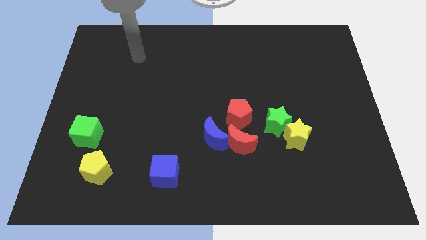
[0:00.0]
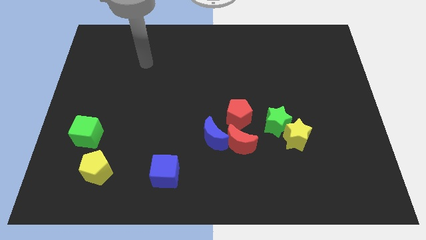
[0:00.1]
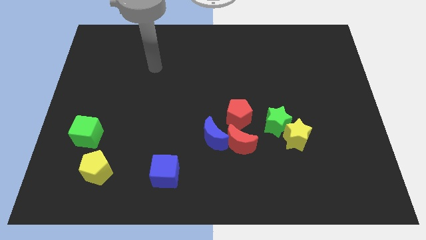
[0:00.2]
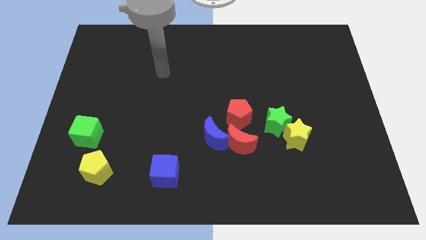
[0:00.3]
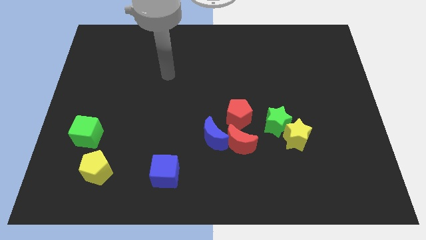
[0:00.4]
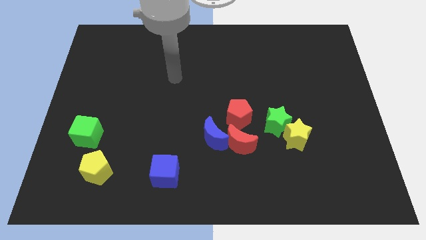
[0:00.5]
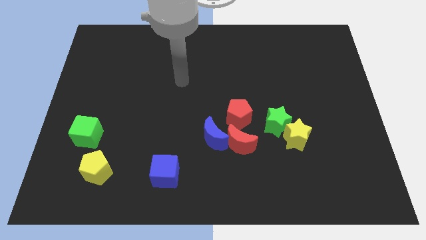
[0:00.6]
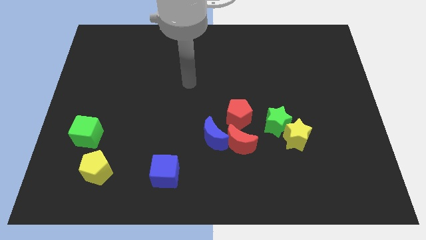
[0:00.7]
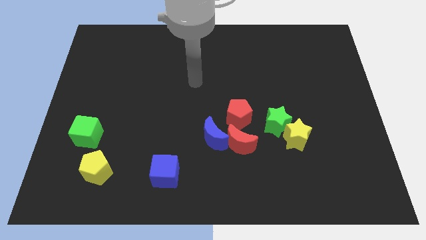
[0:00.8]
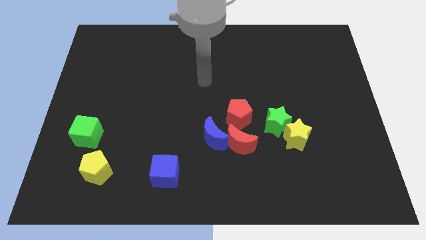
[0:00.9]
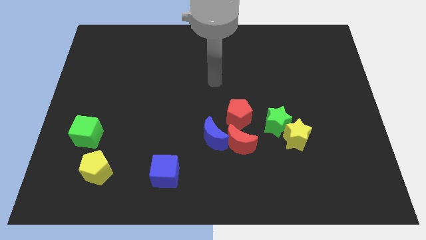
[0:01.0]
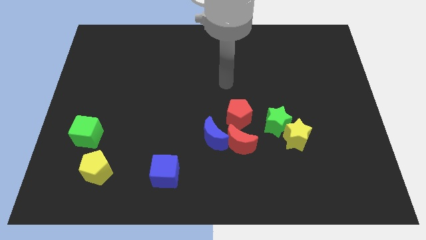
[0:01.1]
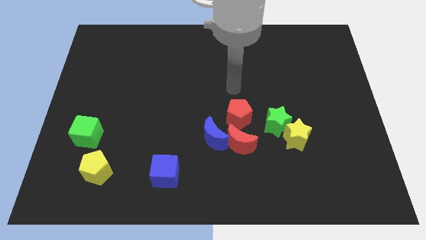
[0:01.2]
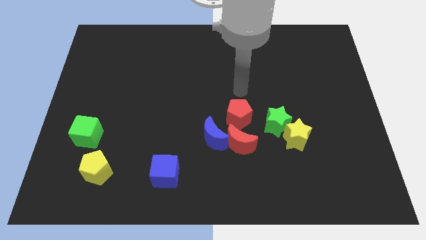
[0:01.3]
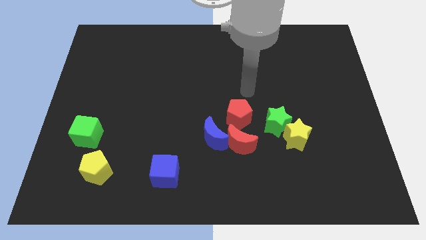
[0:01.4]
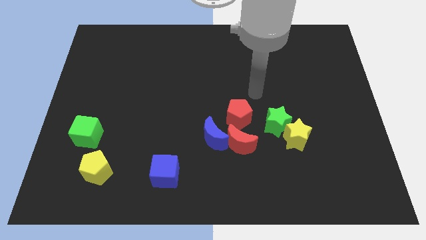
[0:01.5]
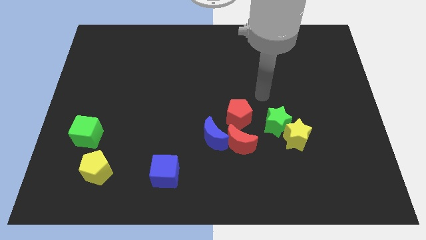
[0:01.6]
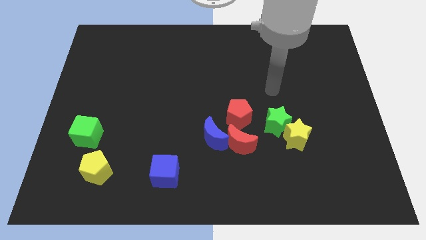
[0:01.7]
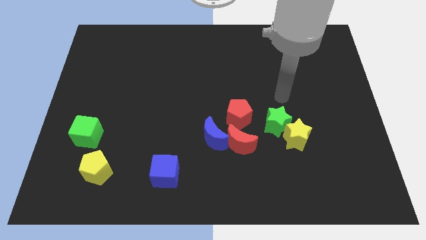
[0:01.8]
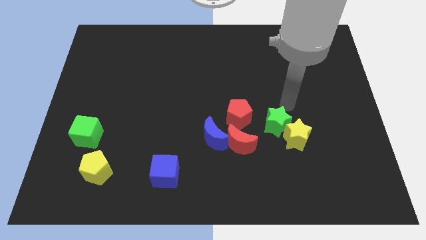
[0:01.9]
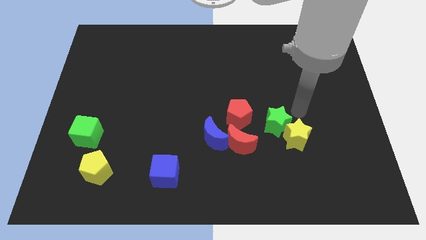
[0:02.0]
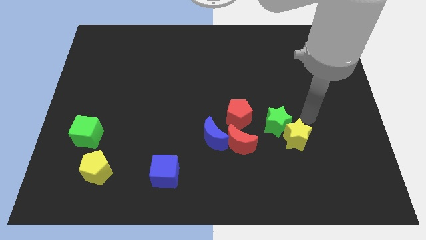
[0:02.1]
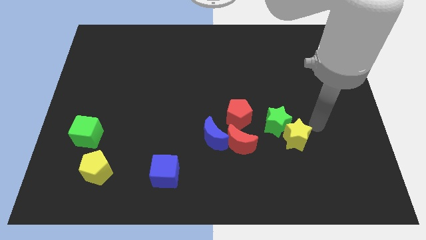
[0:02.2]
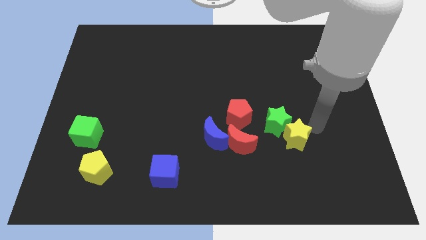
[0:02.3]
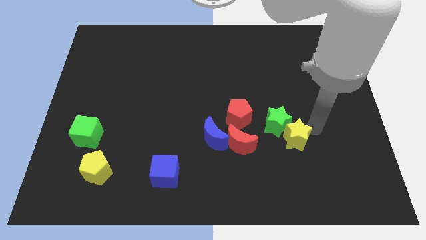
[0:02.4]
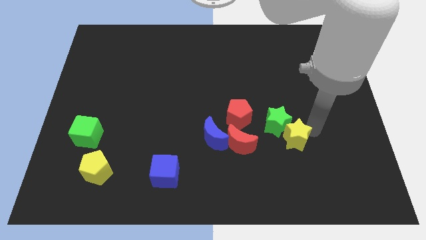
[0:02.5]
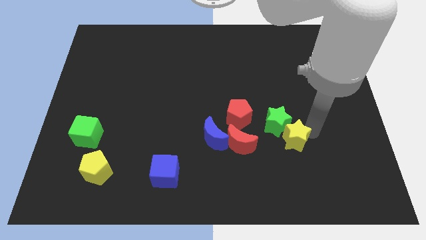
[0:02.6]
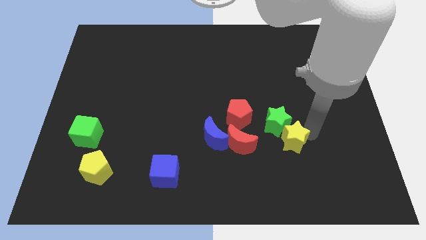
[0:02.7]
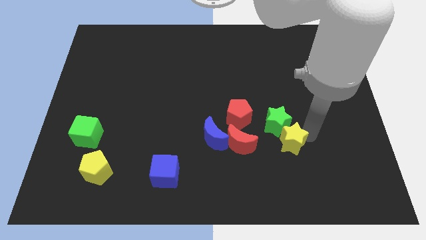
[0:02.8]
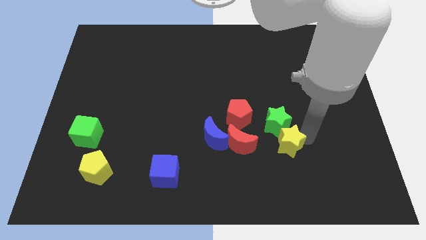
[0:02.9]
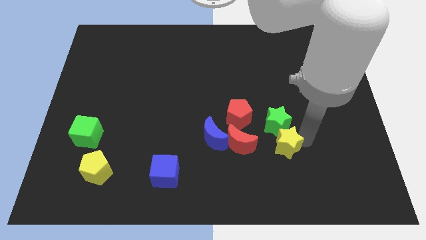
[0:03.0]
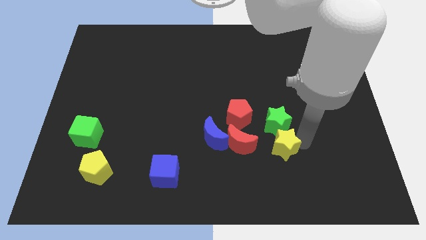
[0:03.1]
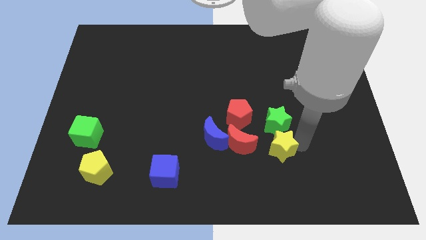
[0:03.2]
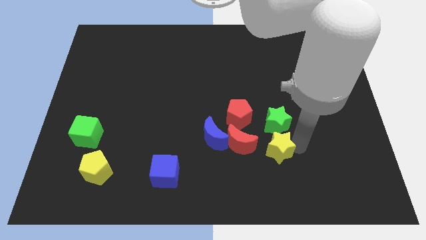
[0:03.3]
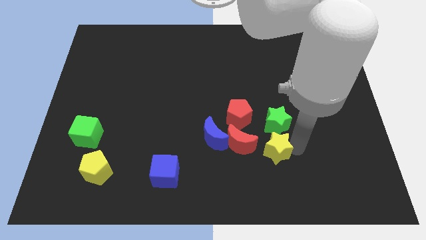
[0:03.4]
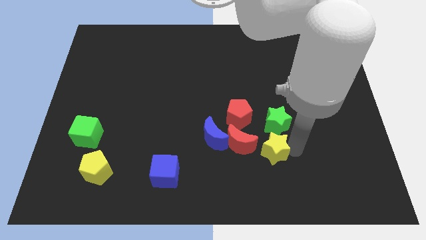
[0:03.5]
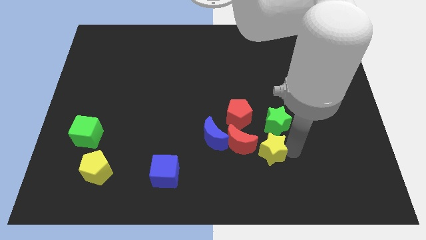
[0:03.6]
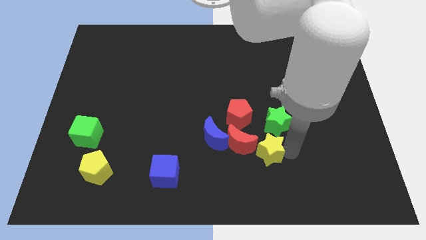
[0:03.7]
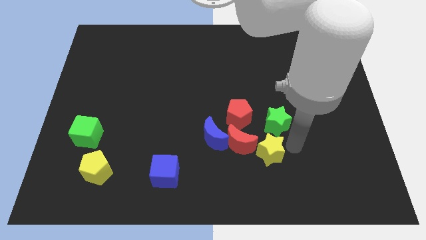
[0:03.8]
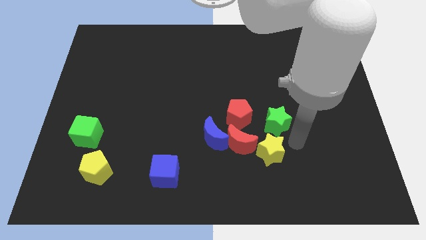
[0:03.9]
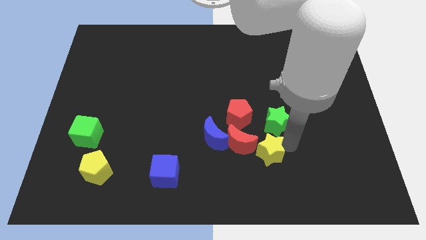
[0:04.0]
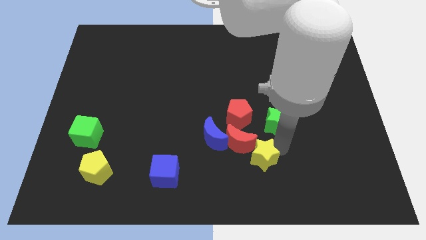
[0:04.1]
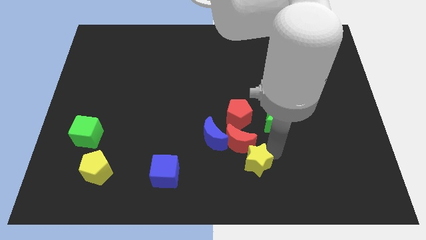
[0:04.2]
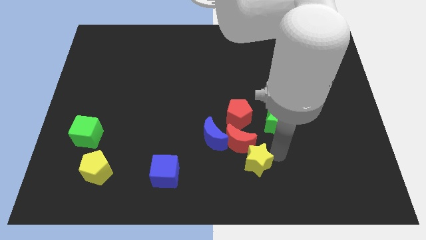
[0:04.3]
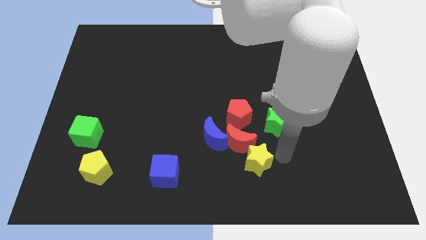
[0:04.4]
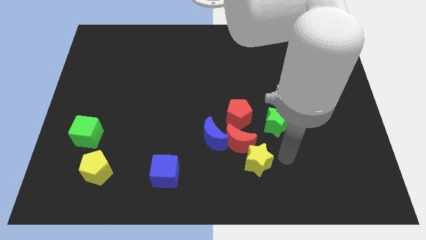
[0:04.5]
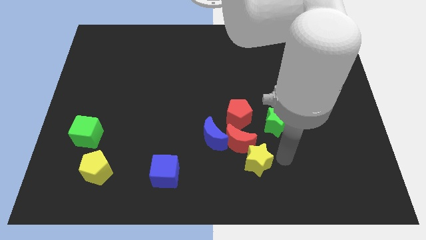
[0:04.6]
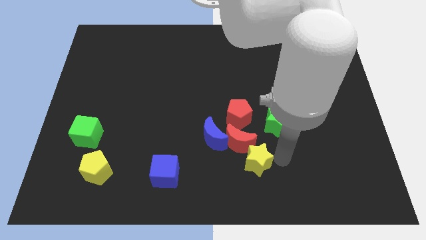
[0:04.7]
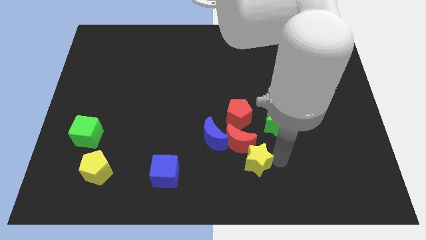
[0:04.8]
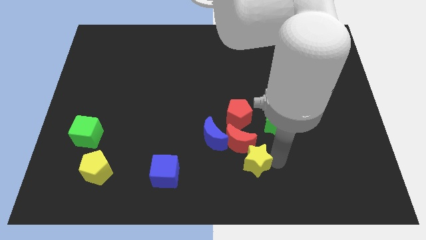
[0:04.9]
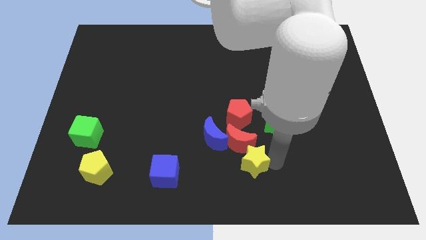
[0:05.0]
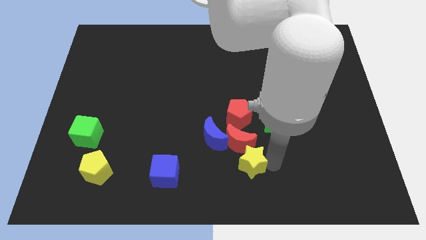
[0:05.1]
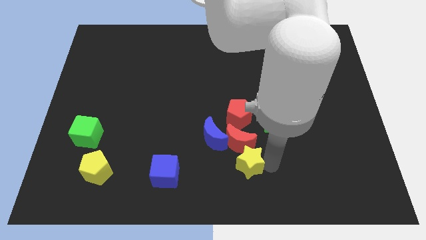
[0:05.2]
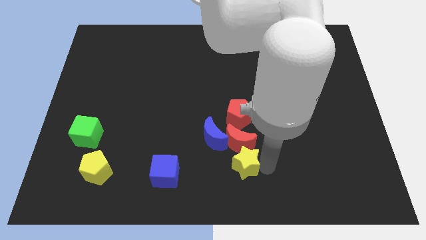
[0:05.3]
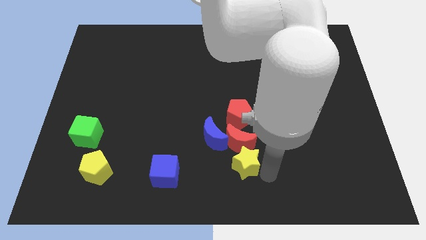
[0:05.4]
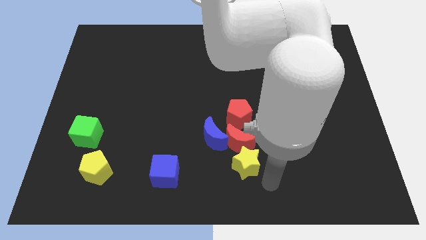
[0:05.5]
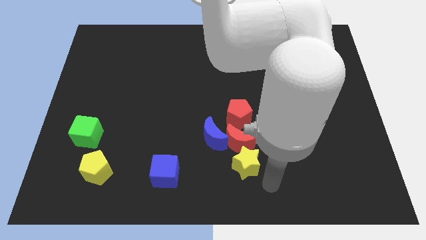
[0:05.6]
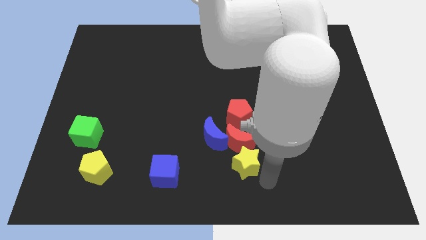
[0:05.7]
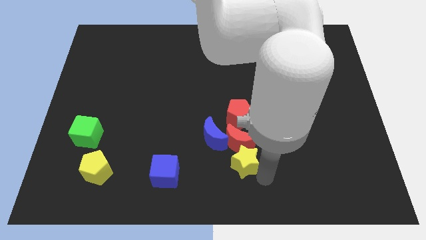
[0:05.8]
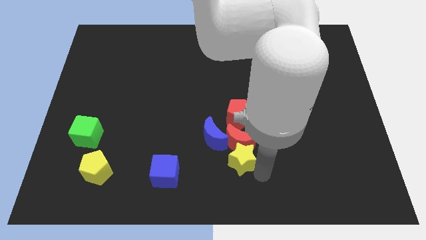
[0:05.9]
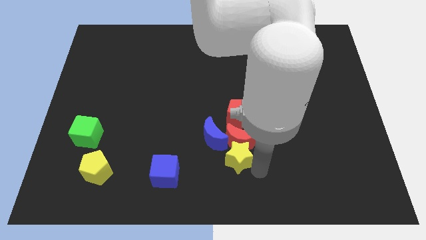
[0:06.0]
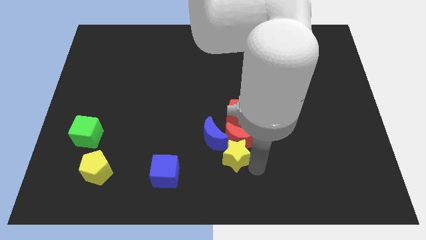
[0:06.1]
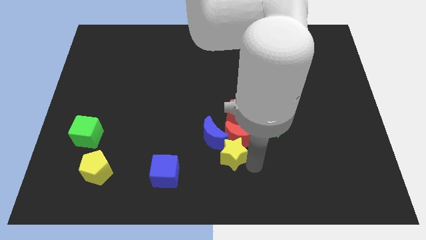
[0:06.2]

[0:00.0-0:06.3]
slide the yellow star towards the blue moon

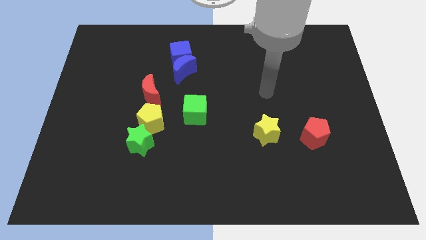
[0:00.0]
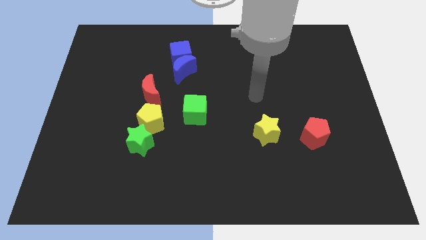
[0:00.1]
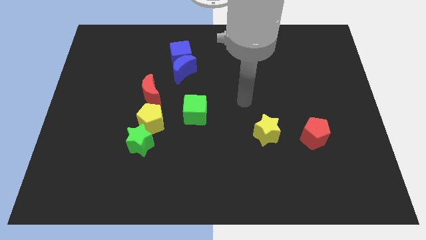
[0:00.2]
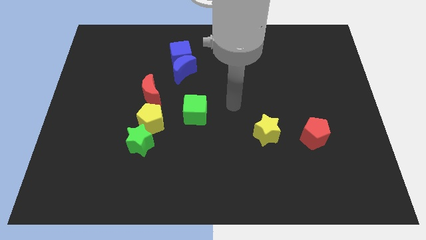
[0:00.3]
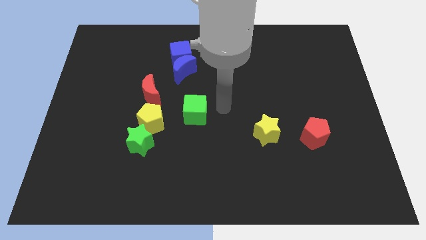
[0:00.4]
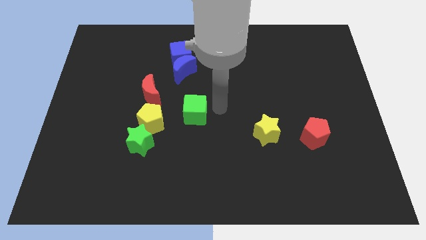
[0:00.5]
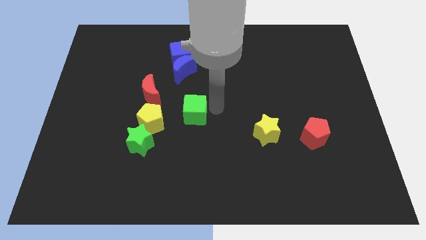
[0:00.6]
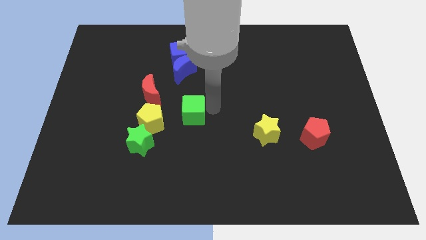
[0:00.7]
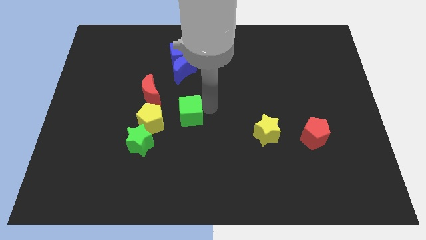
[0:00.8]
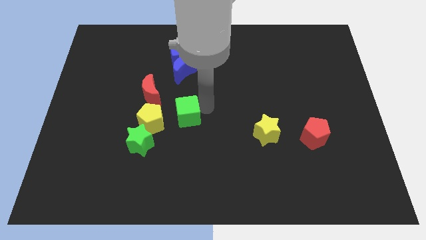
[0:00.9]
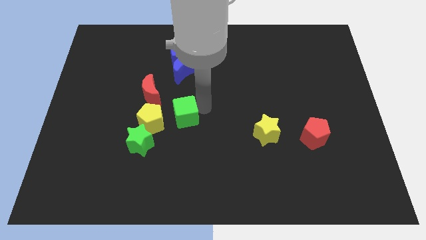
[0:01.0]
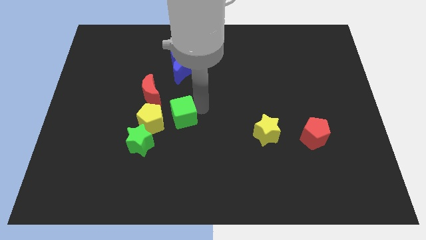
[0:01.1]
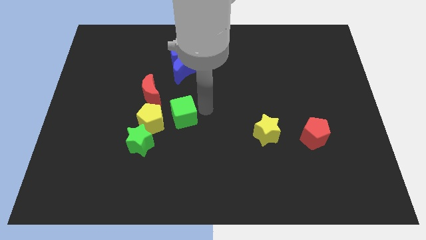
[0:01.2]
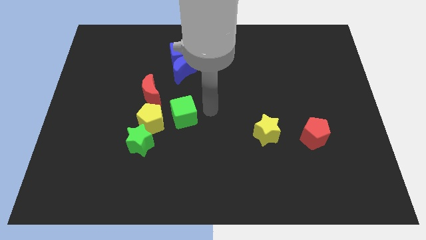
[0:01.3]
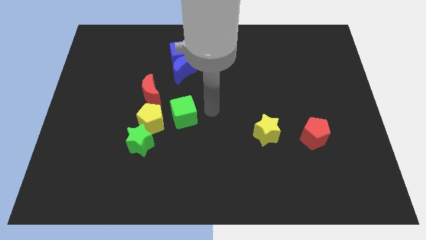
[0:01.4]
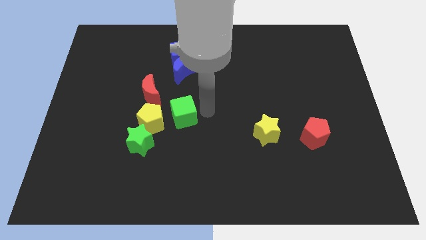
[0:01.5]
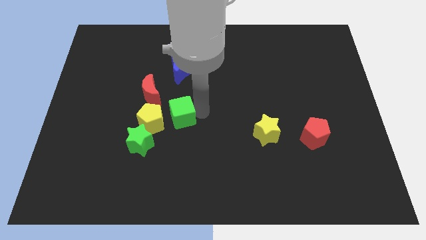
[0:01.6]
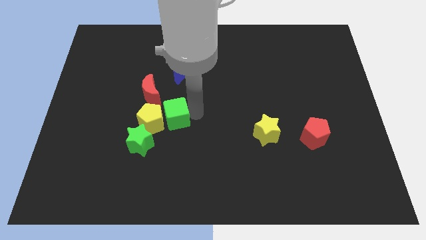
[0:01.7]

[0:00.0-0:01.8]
move the green cube next to the yellow pentagon
